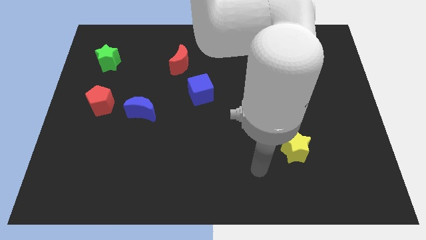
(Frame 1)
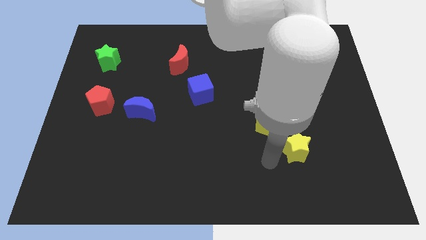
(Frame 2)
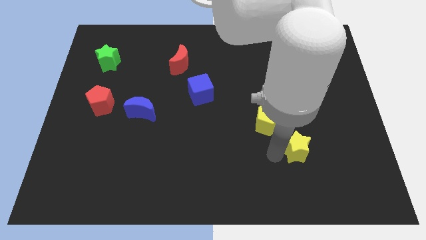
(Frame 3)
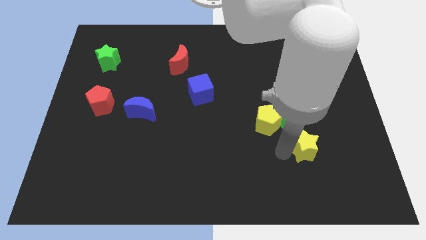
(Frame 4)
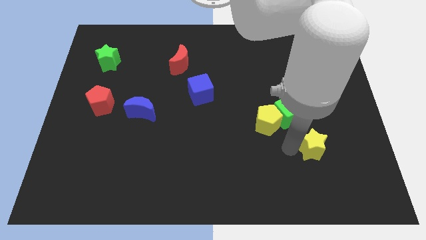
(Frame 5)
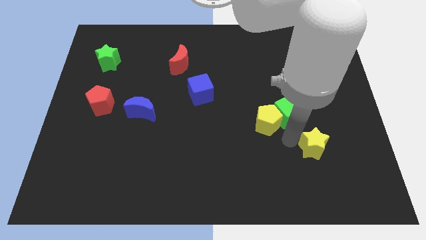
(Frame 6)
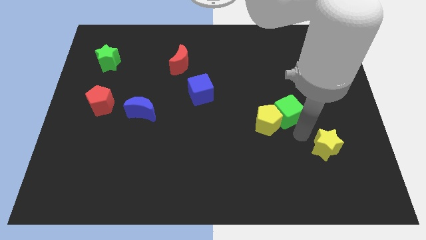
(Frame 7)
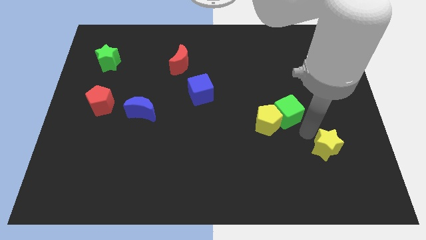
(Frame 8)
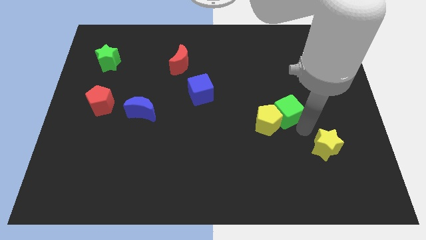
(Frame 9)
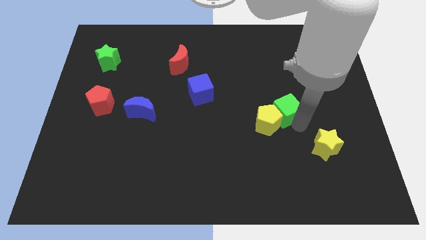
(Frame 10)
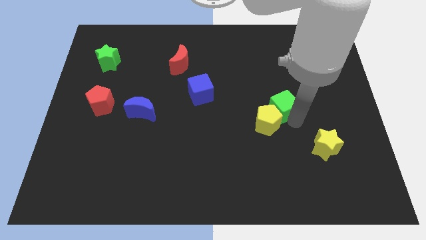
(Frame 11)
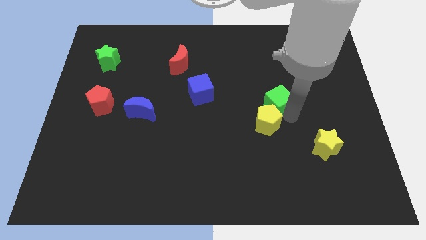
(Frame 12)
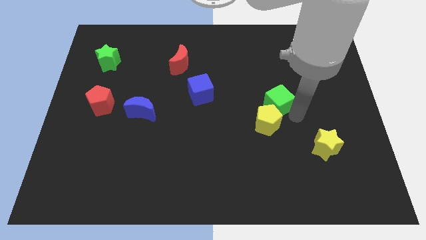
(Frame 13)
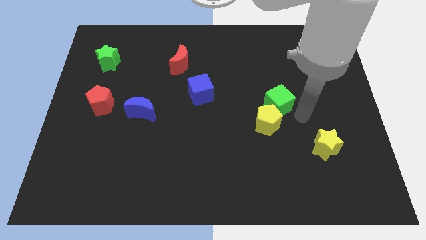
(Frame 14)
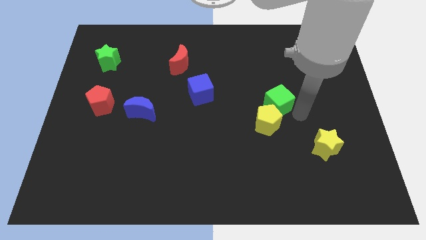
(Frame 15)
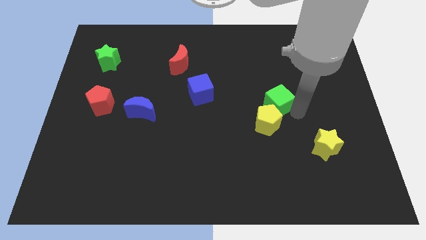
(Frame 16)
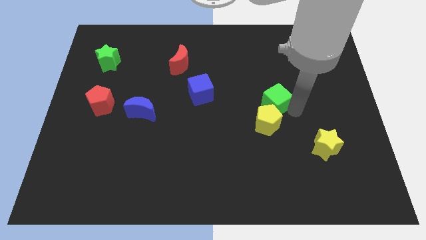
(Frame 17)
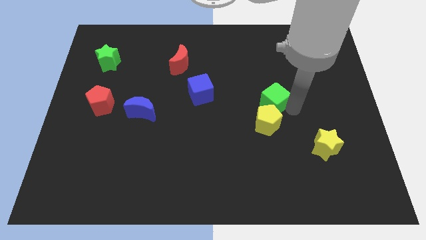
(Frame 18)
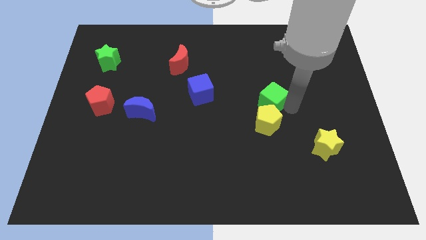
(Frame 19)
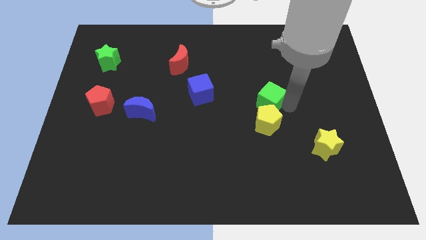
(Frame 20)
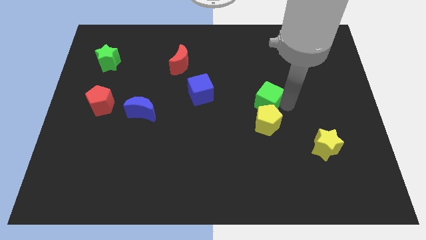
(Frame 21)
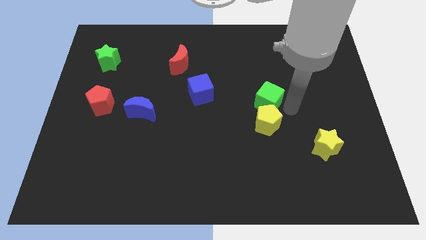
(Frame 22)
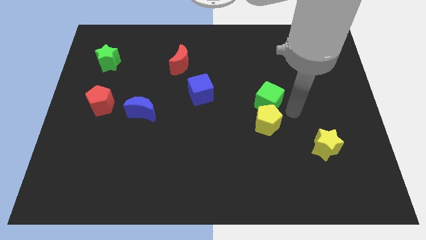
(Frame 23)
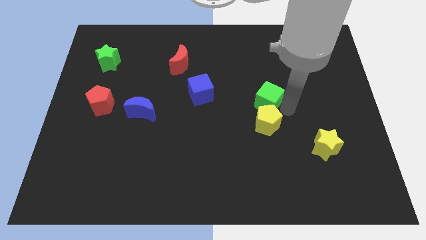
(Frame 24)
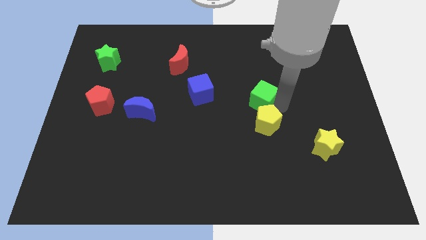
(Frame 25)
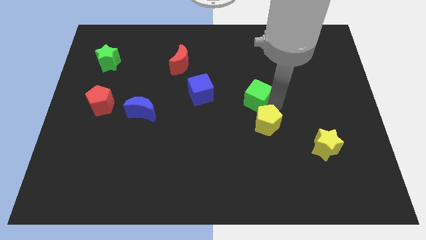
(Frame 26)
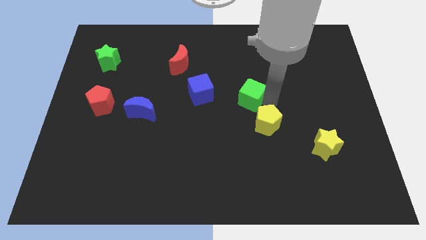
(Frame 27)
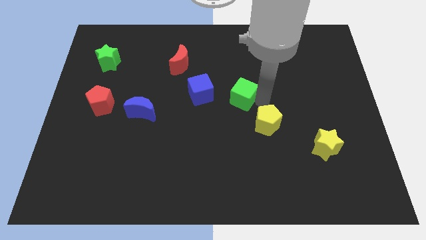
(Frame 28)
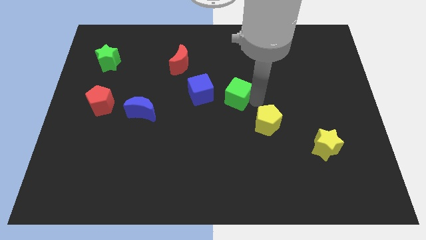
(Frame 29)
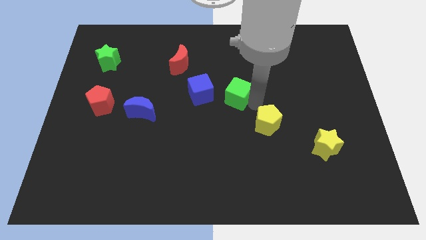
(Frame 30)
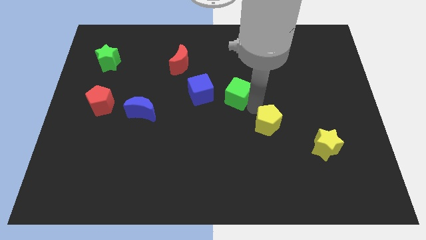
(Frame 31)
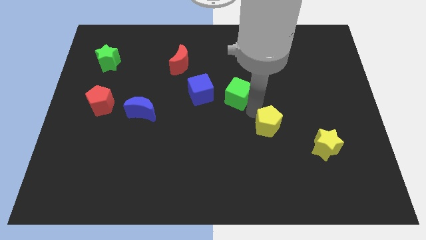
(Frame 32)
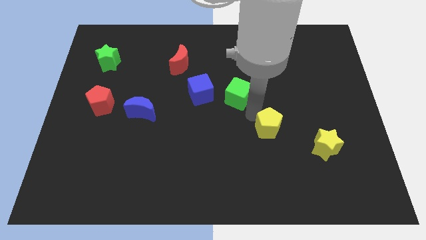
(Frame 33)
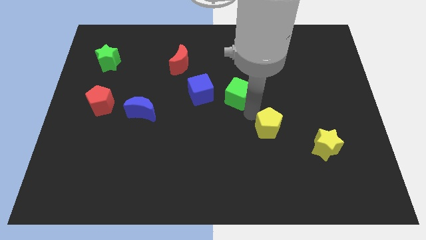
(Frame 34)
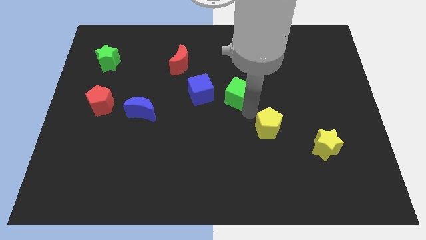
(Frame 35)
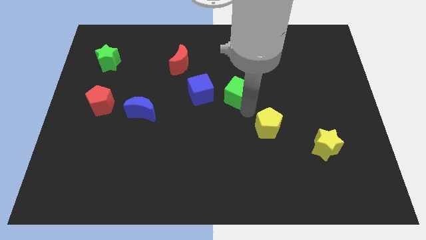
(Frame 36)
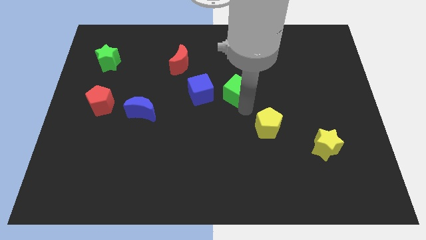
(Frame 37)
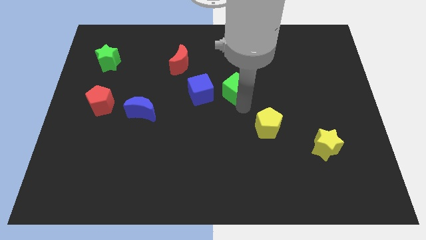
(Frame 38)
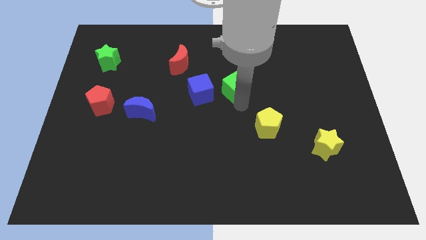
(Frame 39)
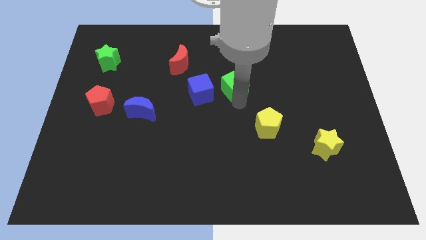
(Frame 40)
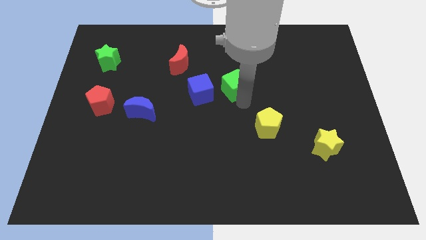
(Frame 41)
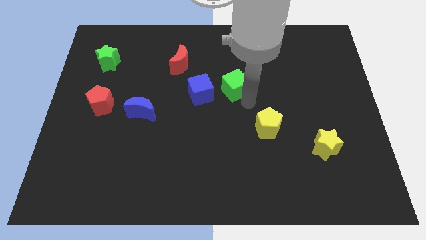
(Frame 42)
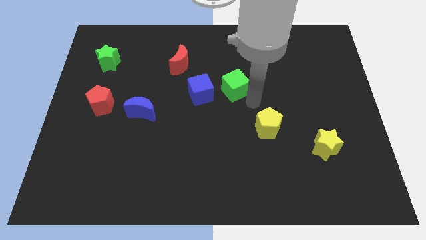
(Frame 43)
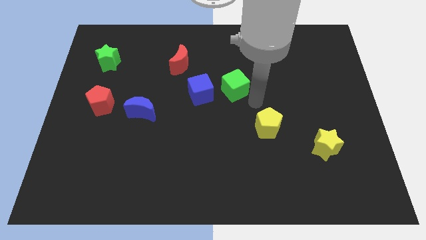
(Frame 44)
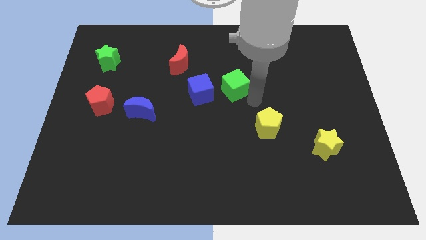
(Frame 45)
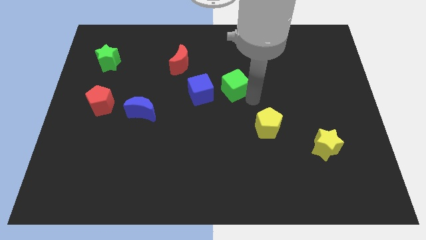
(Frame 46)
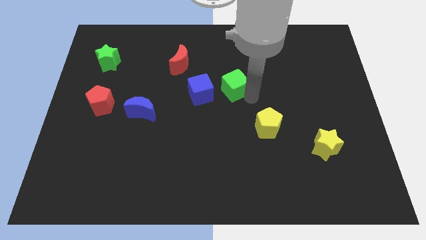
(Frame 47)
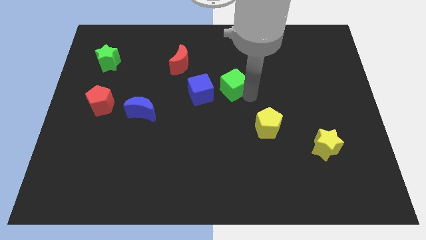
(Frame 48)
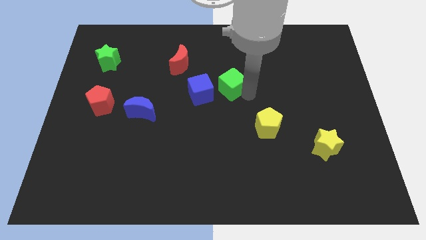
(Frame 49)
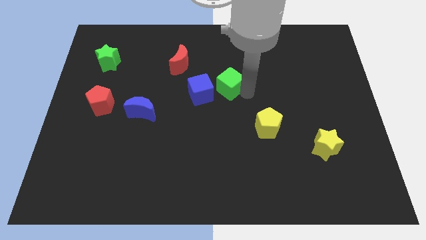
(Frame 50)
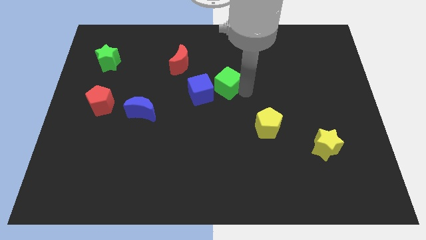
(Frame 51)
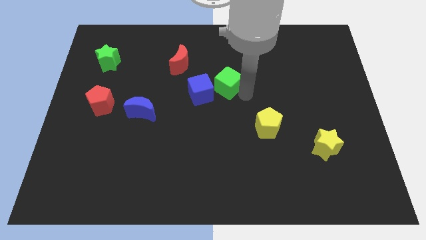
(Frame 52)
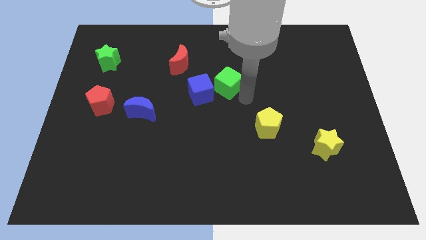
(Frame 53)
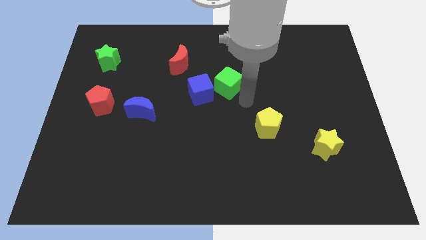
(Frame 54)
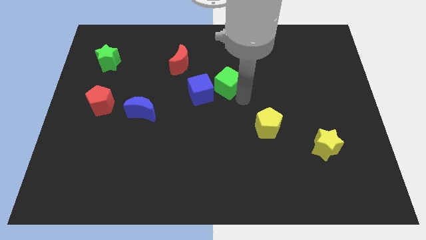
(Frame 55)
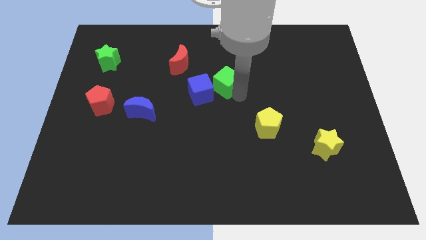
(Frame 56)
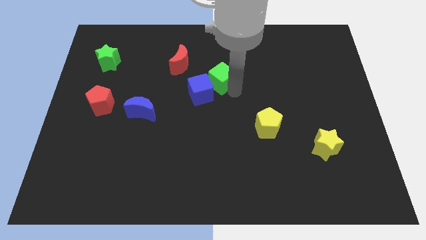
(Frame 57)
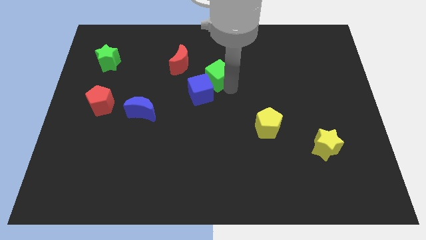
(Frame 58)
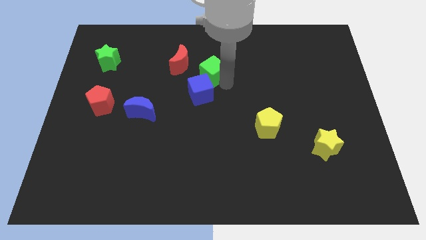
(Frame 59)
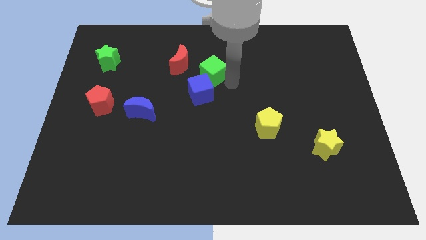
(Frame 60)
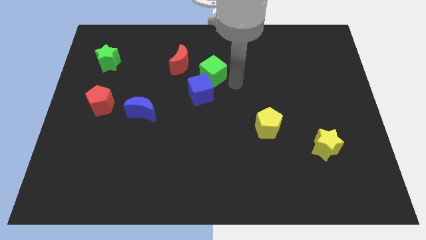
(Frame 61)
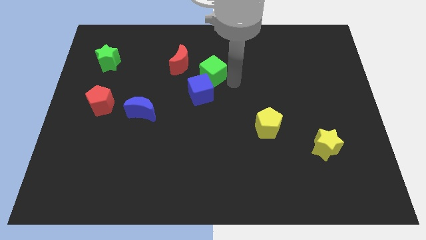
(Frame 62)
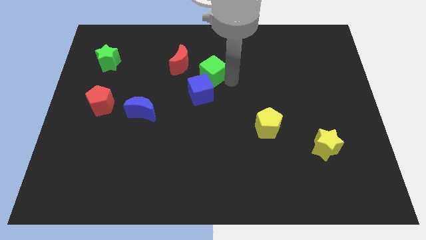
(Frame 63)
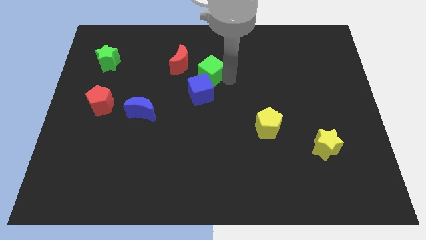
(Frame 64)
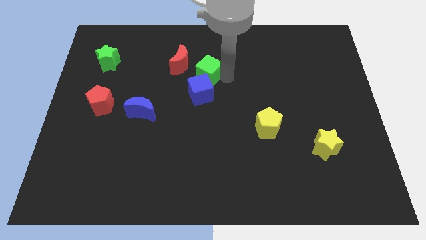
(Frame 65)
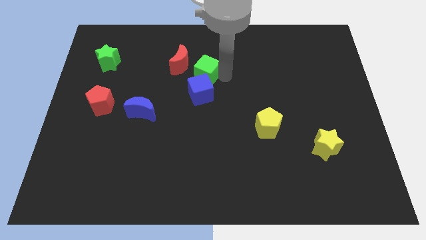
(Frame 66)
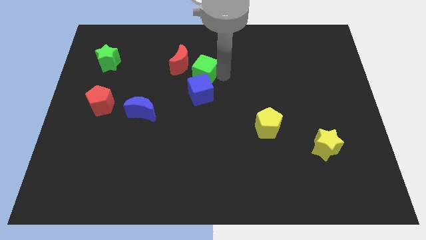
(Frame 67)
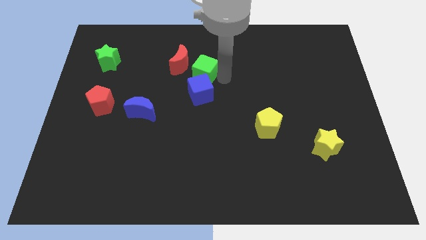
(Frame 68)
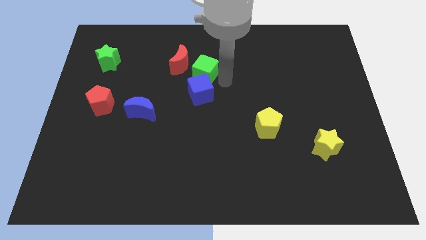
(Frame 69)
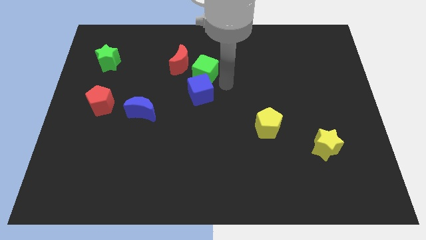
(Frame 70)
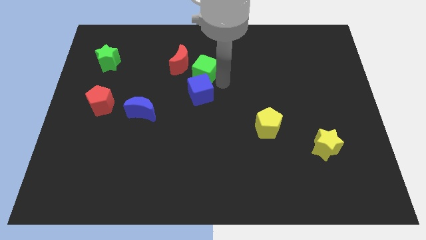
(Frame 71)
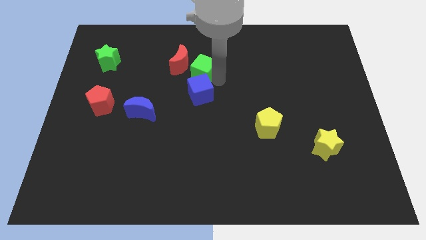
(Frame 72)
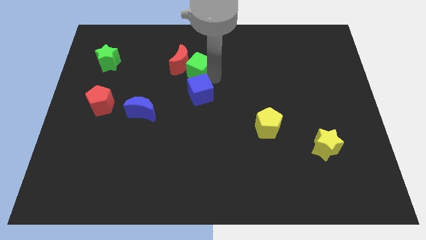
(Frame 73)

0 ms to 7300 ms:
slide the green cube next to the red moon

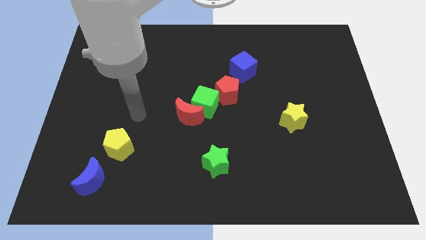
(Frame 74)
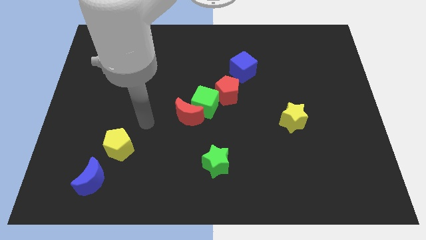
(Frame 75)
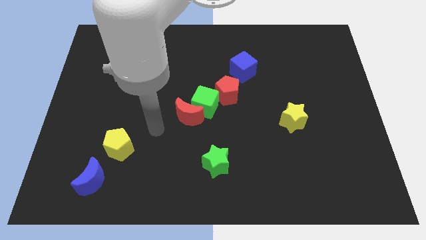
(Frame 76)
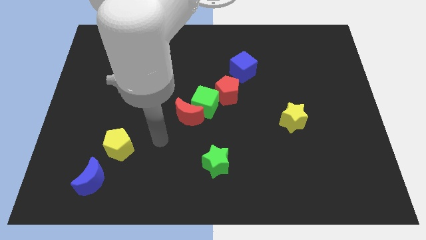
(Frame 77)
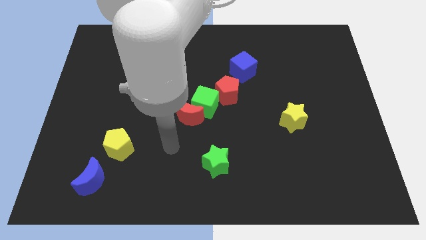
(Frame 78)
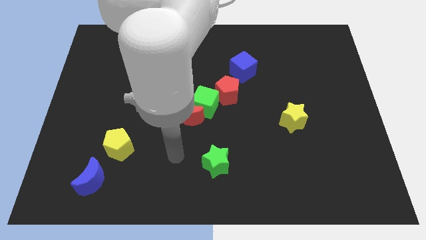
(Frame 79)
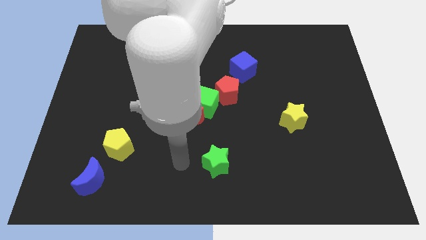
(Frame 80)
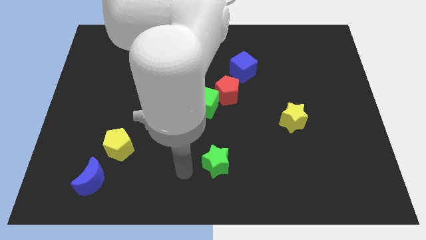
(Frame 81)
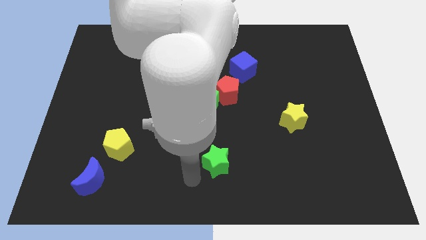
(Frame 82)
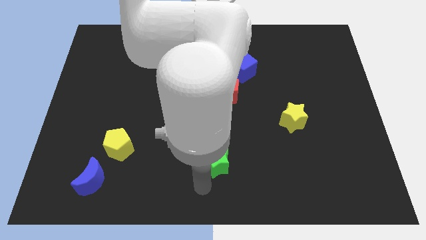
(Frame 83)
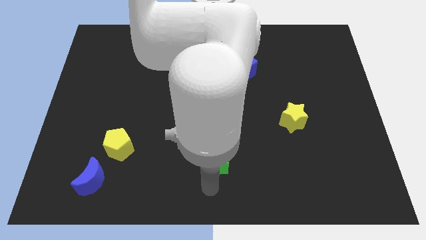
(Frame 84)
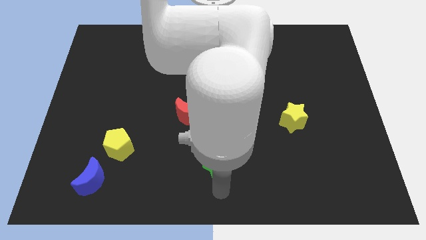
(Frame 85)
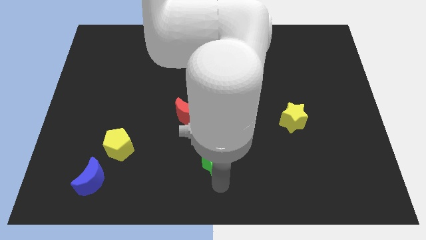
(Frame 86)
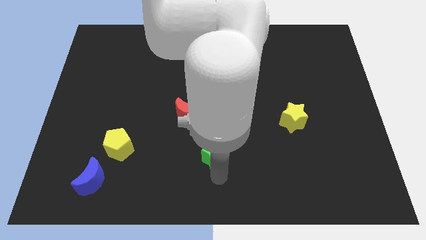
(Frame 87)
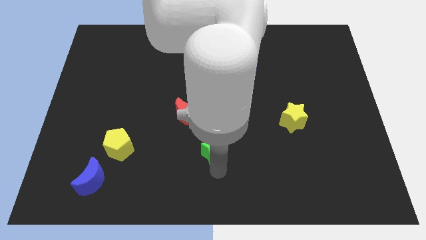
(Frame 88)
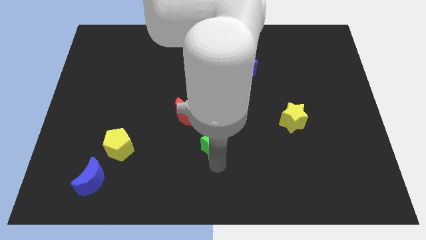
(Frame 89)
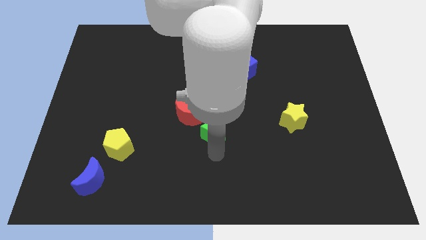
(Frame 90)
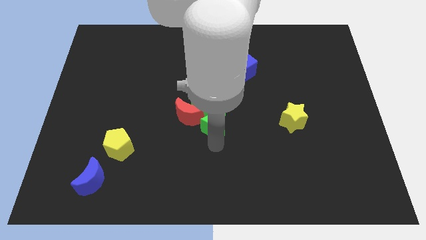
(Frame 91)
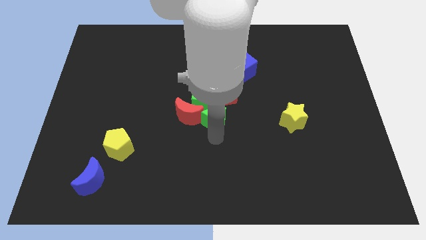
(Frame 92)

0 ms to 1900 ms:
move the green star to the green cube
